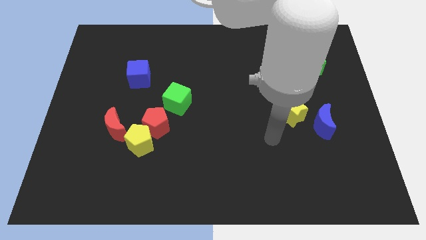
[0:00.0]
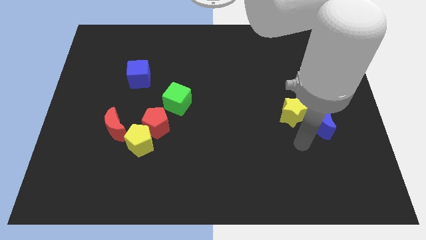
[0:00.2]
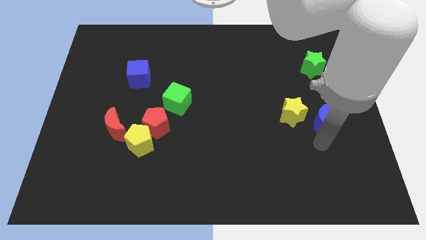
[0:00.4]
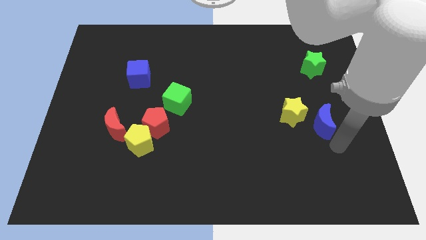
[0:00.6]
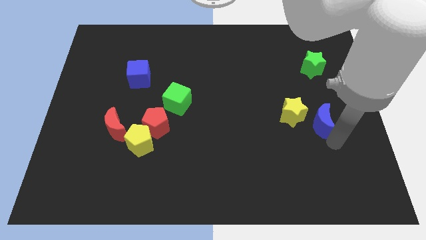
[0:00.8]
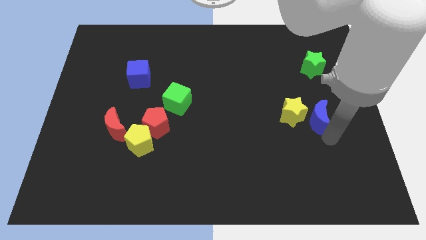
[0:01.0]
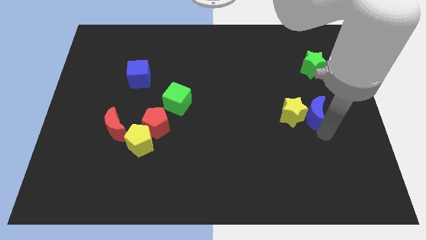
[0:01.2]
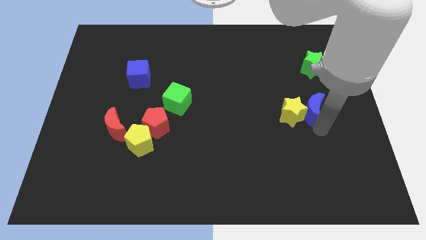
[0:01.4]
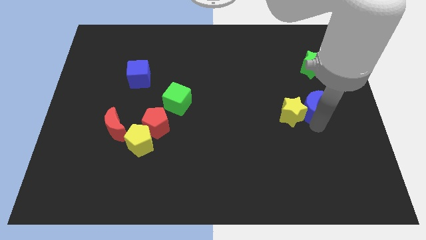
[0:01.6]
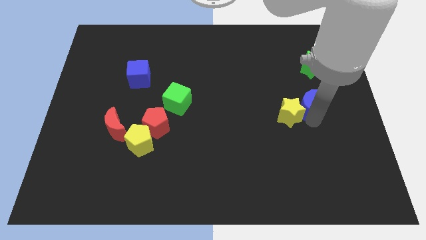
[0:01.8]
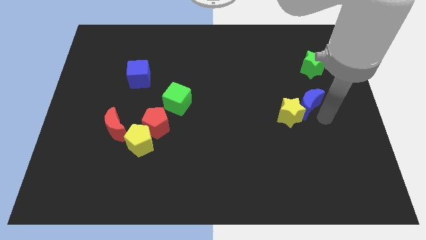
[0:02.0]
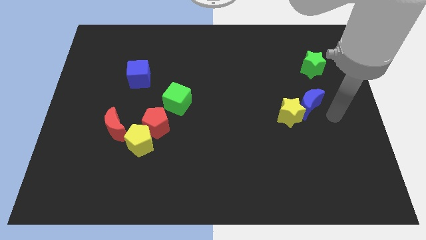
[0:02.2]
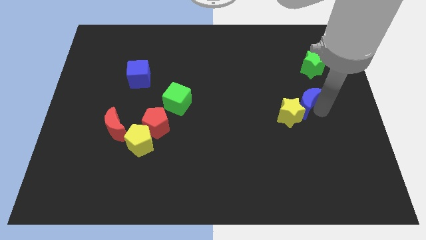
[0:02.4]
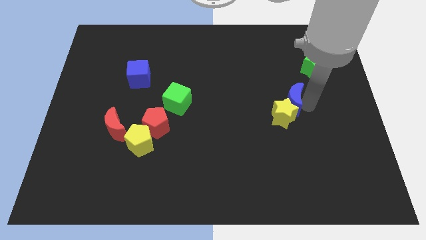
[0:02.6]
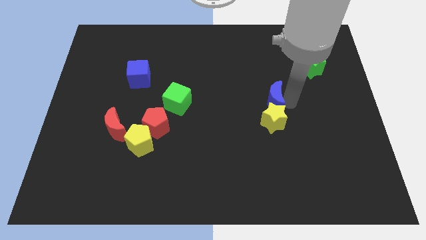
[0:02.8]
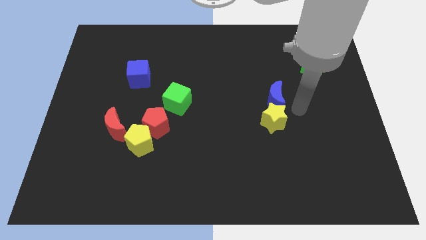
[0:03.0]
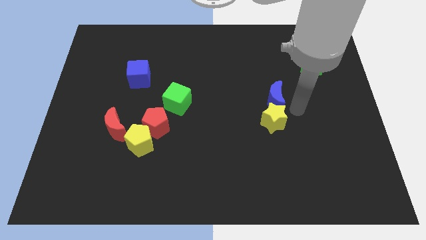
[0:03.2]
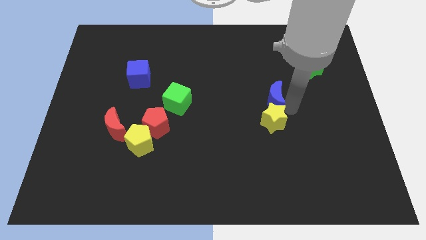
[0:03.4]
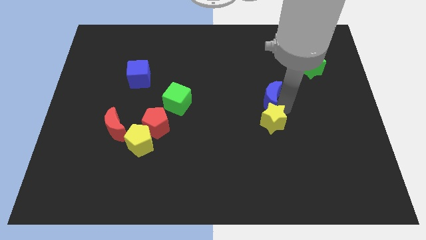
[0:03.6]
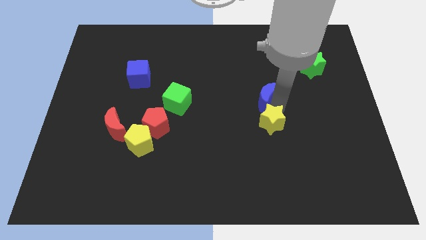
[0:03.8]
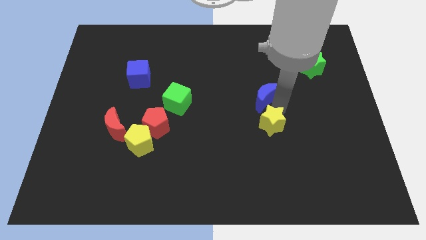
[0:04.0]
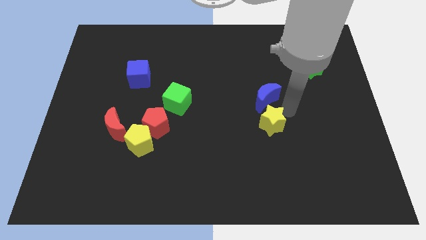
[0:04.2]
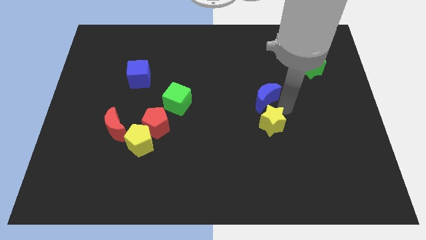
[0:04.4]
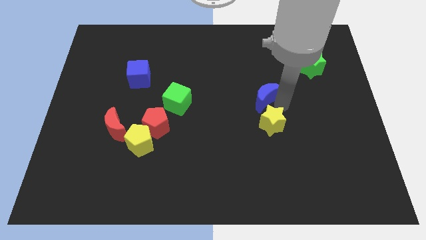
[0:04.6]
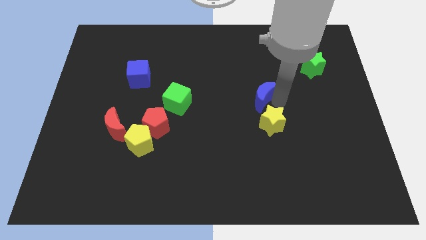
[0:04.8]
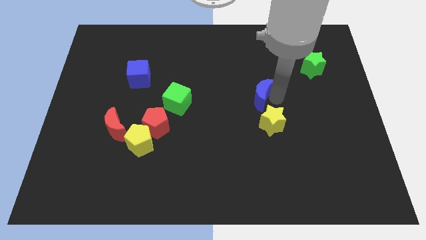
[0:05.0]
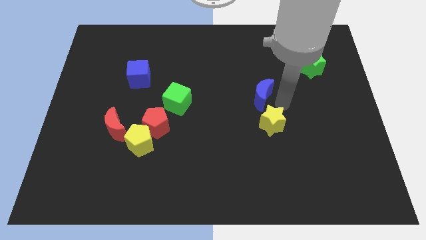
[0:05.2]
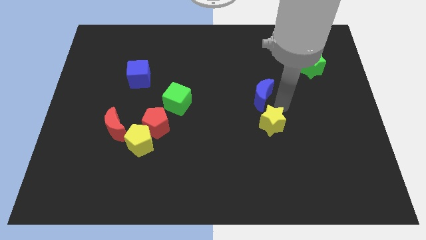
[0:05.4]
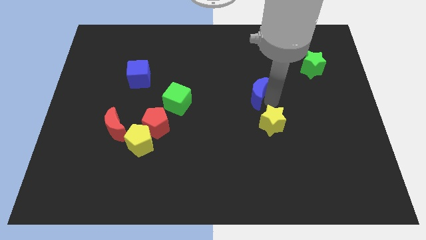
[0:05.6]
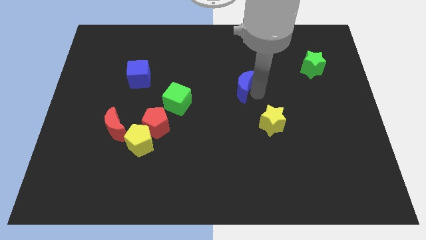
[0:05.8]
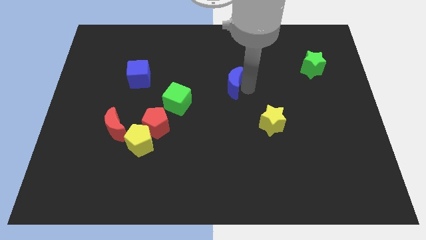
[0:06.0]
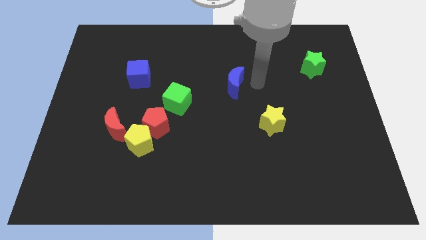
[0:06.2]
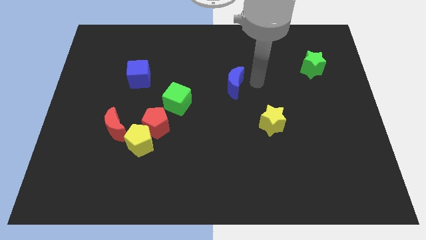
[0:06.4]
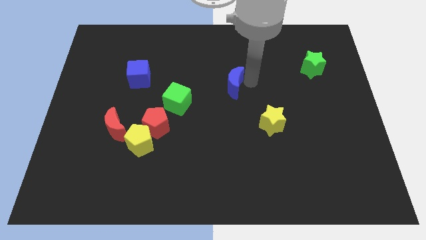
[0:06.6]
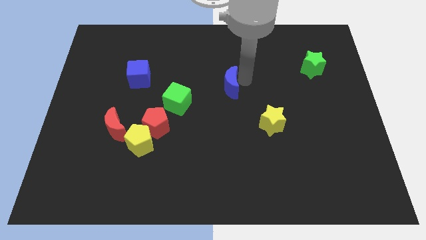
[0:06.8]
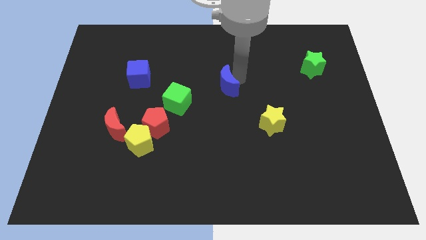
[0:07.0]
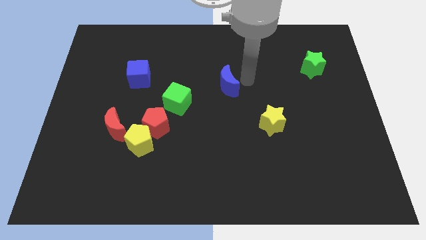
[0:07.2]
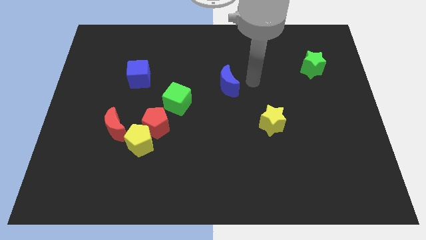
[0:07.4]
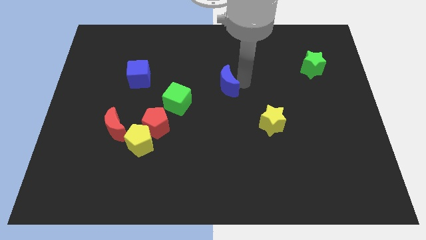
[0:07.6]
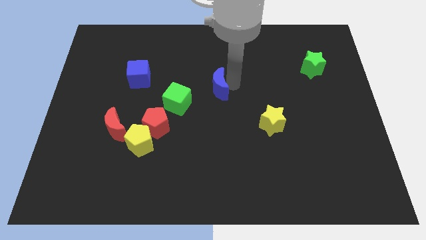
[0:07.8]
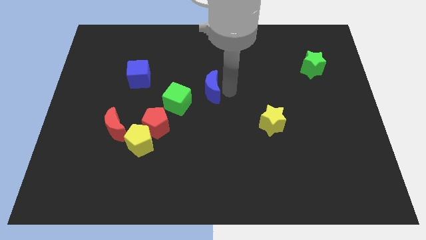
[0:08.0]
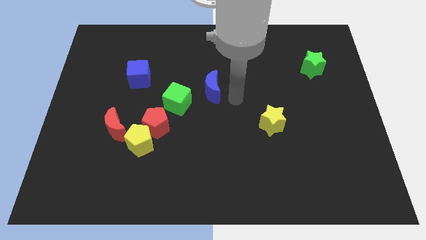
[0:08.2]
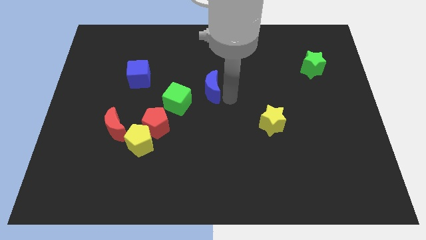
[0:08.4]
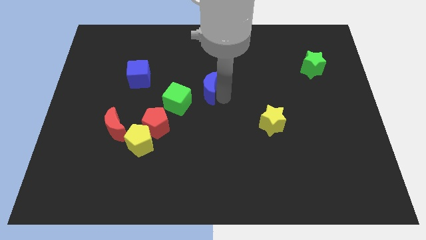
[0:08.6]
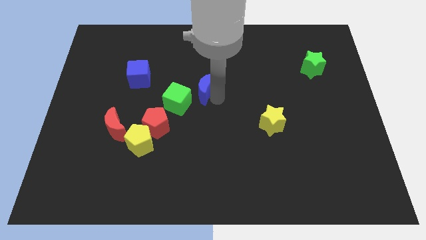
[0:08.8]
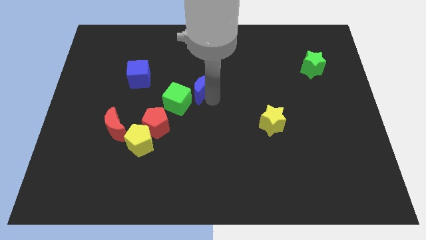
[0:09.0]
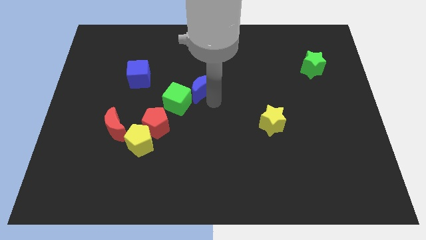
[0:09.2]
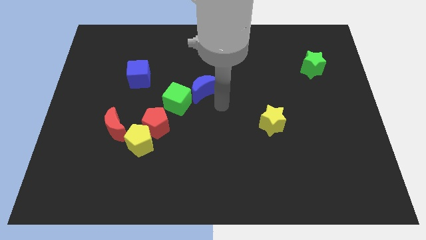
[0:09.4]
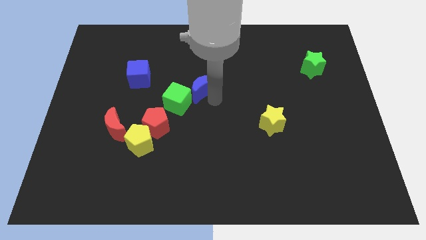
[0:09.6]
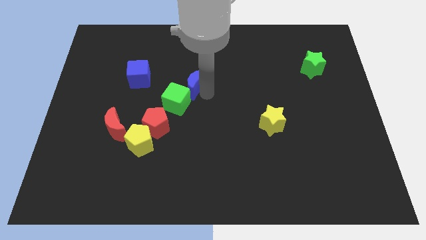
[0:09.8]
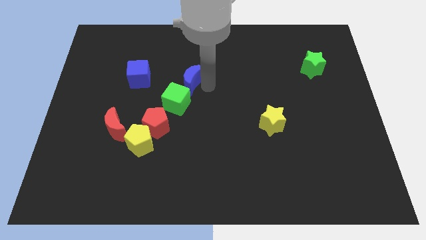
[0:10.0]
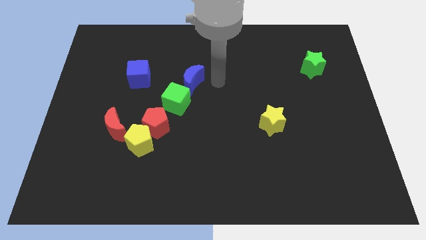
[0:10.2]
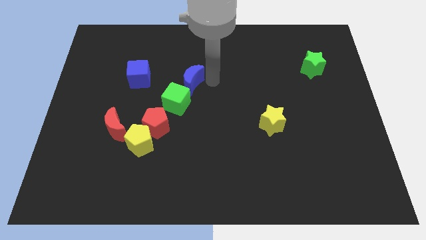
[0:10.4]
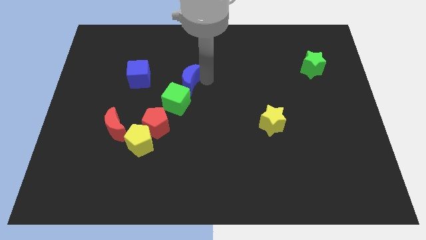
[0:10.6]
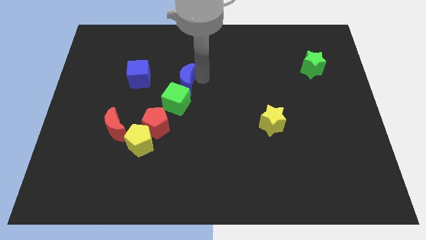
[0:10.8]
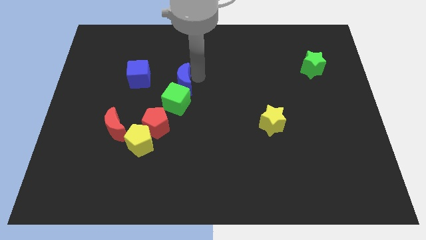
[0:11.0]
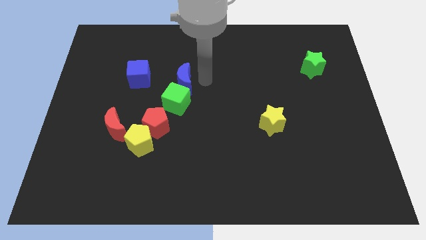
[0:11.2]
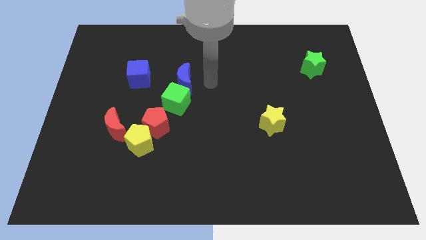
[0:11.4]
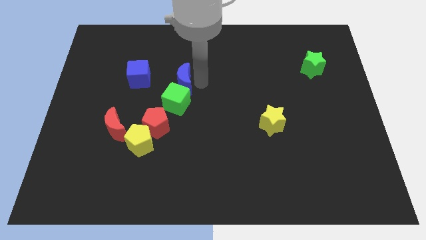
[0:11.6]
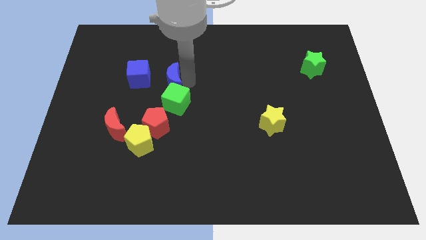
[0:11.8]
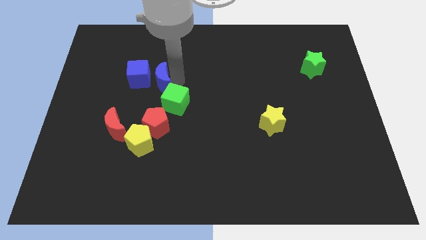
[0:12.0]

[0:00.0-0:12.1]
move the blue moon close to the blue cube
